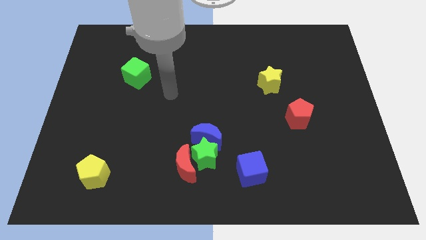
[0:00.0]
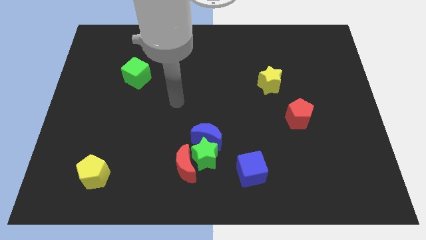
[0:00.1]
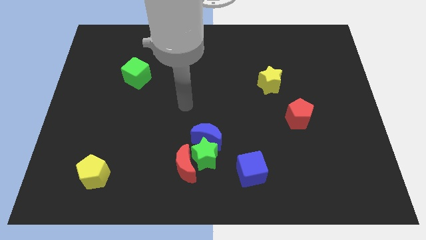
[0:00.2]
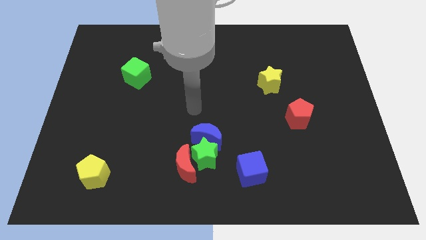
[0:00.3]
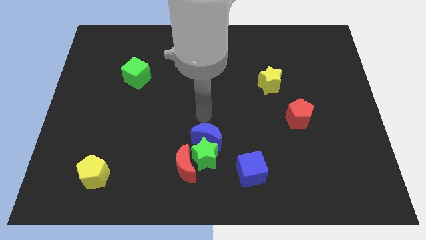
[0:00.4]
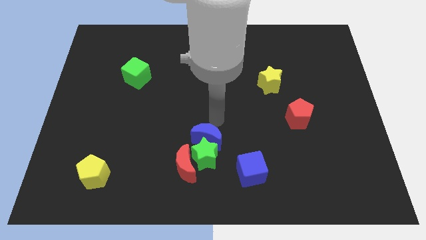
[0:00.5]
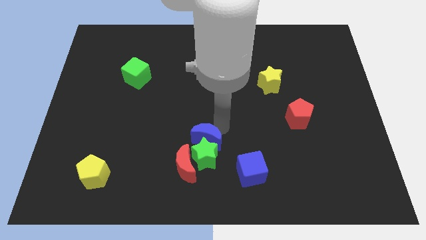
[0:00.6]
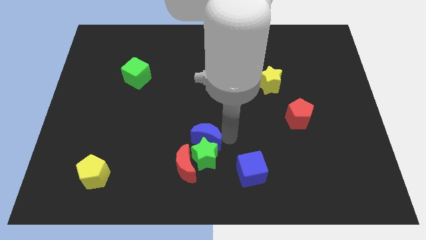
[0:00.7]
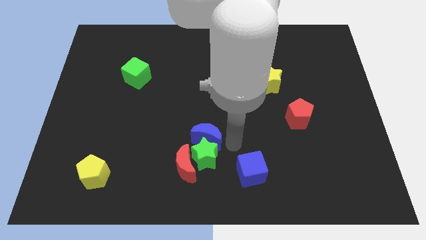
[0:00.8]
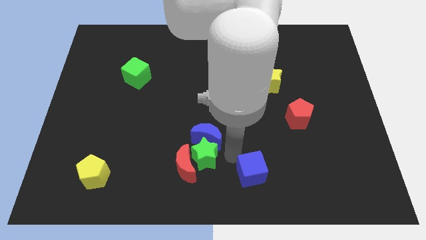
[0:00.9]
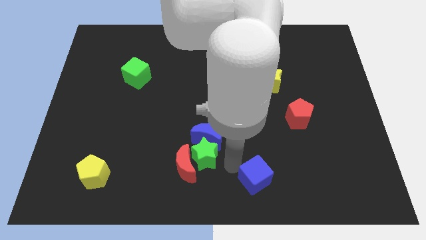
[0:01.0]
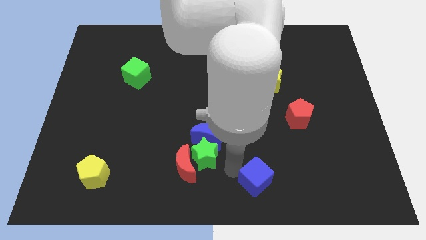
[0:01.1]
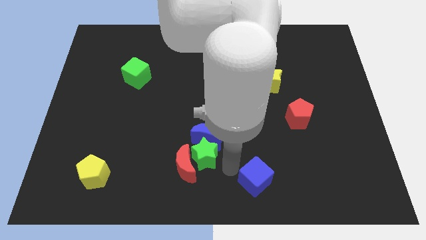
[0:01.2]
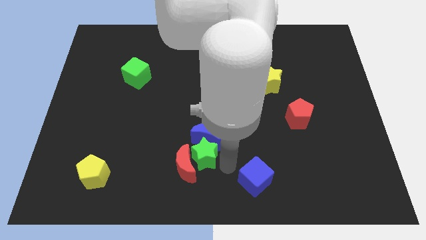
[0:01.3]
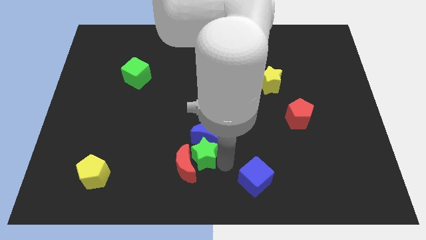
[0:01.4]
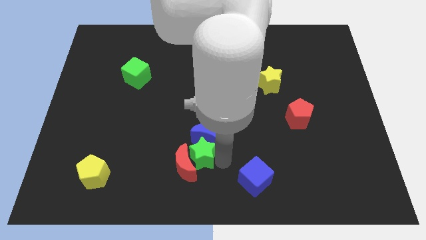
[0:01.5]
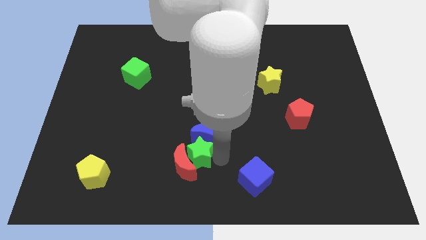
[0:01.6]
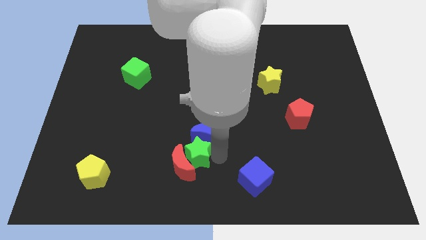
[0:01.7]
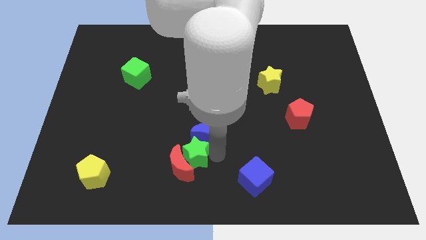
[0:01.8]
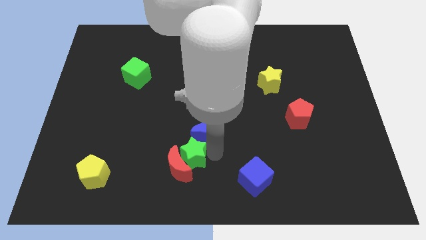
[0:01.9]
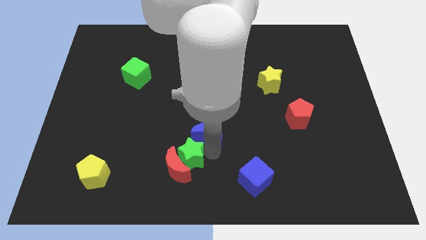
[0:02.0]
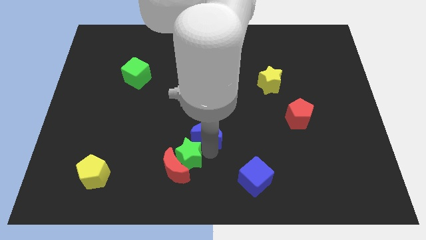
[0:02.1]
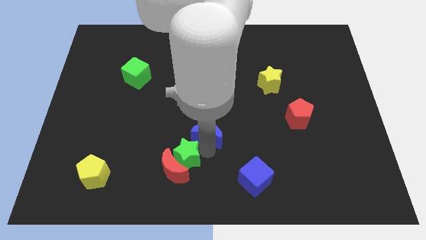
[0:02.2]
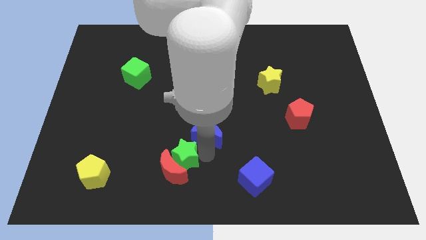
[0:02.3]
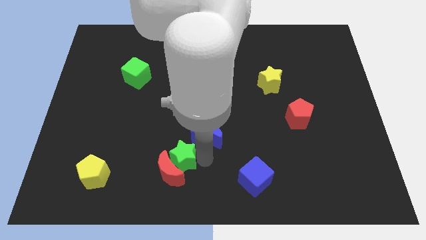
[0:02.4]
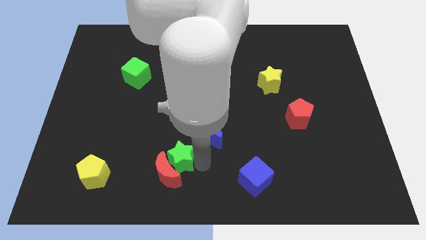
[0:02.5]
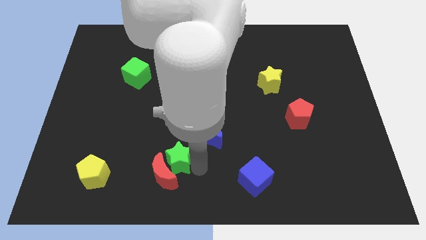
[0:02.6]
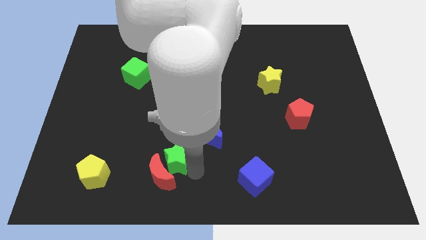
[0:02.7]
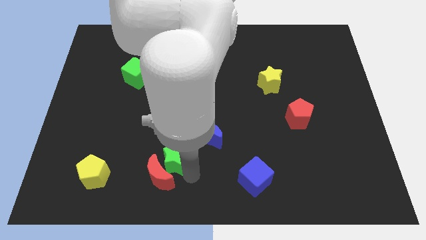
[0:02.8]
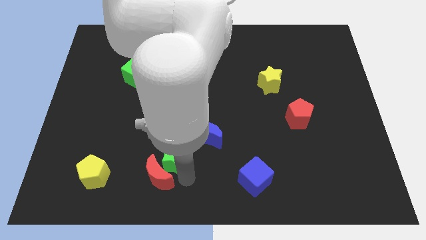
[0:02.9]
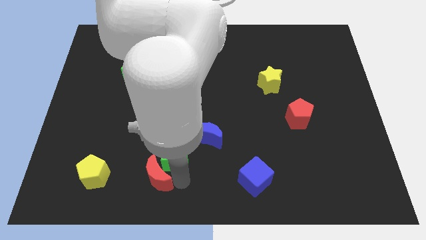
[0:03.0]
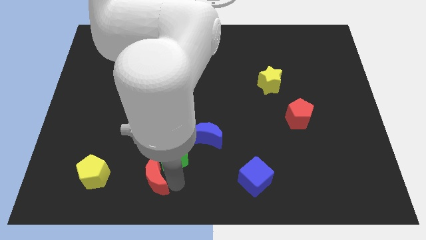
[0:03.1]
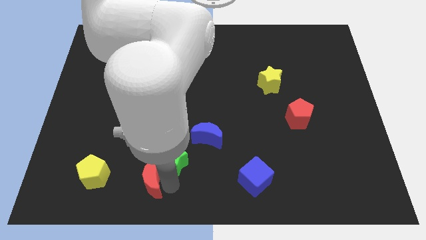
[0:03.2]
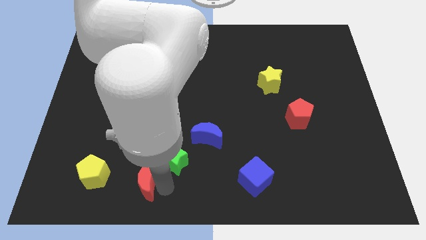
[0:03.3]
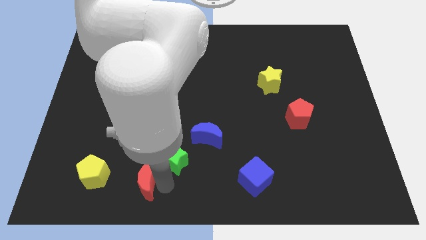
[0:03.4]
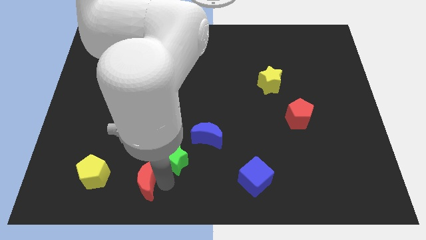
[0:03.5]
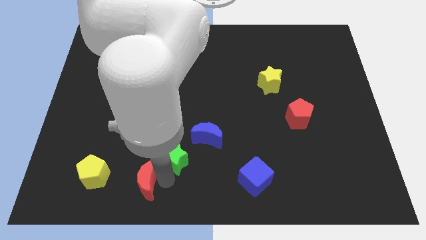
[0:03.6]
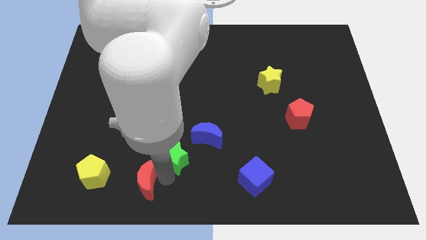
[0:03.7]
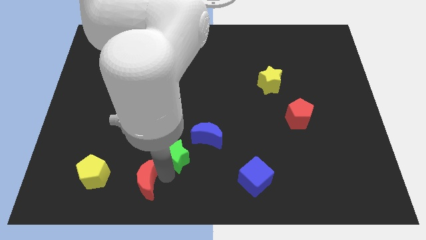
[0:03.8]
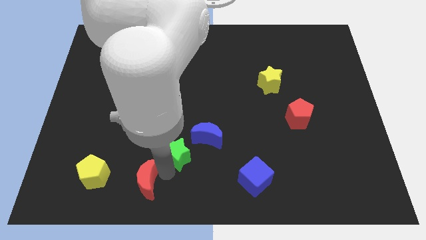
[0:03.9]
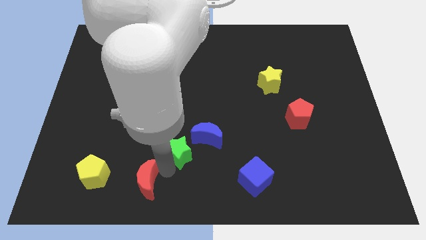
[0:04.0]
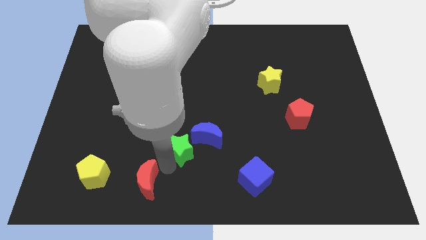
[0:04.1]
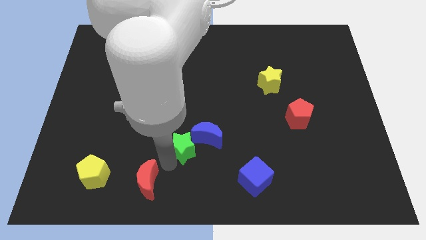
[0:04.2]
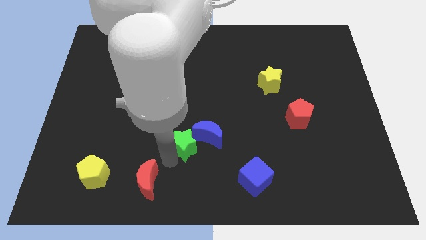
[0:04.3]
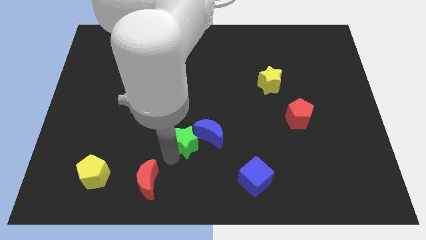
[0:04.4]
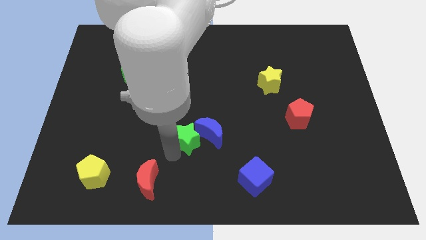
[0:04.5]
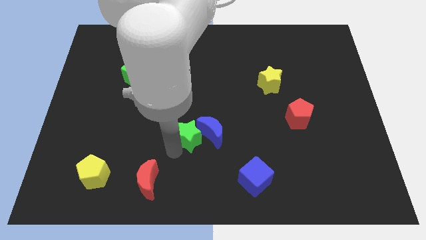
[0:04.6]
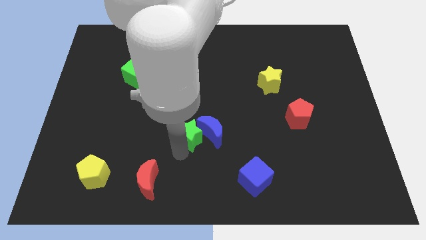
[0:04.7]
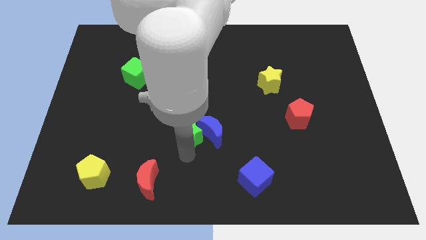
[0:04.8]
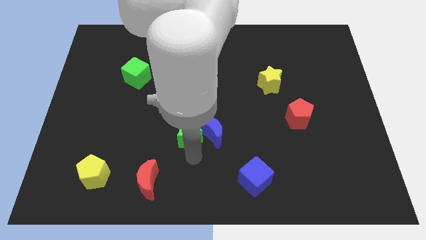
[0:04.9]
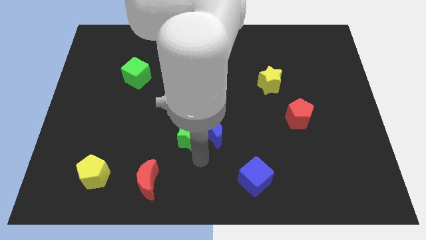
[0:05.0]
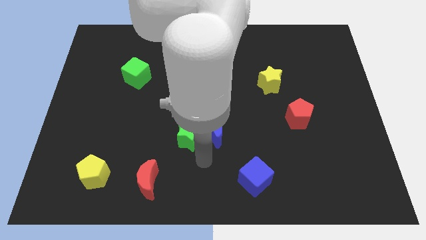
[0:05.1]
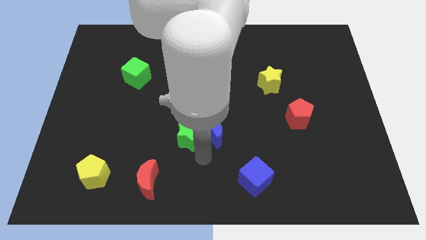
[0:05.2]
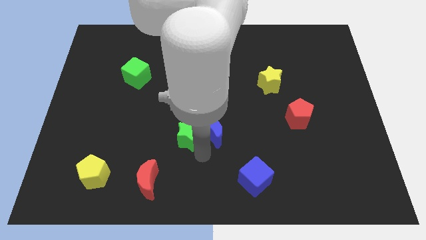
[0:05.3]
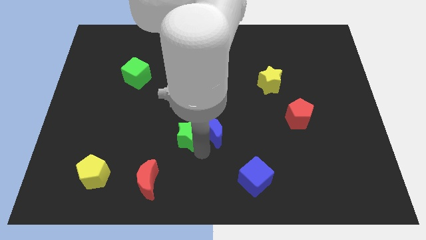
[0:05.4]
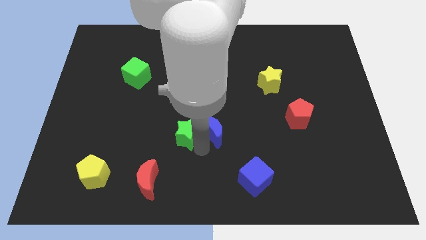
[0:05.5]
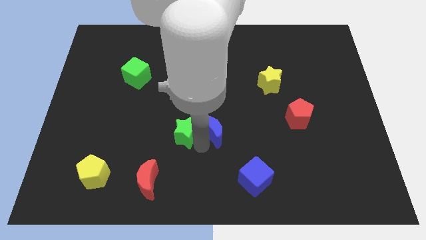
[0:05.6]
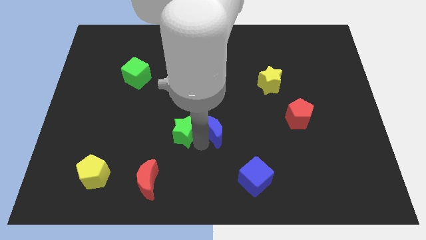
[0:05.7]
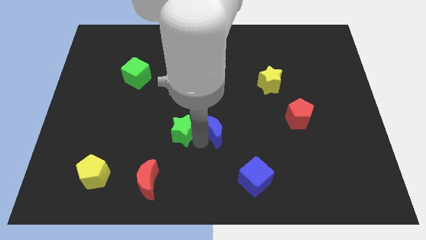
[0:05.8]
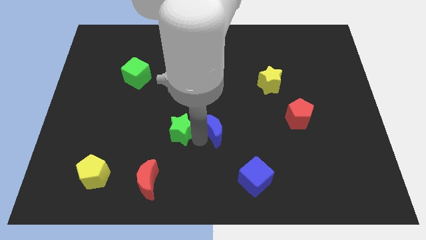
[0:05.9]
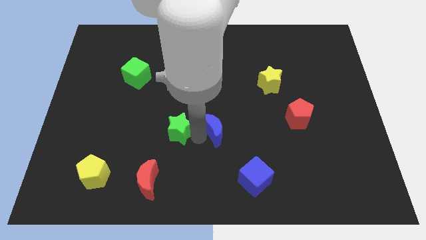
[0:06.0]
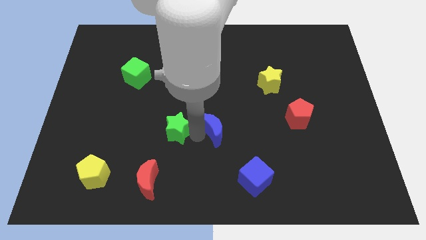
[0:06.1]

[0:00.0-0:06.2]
separate the green star from the clump

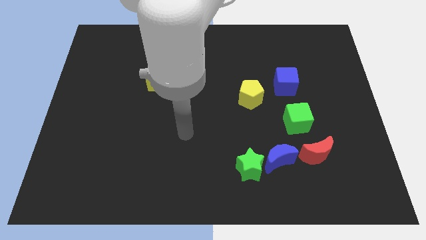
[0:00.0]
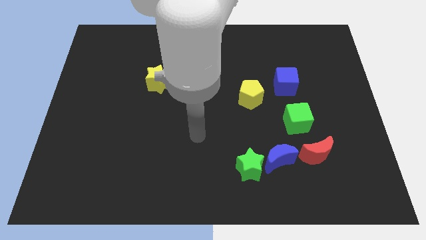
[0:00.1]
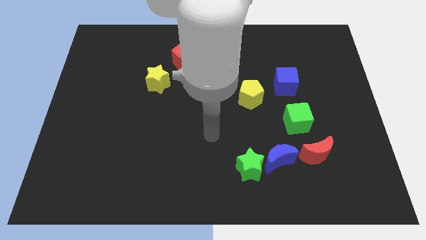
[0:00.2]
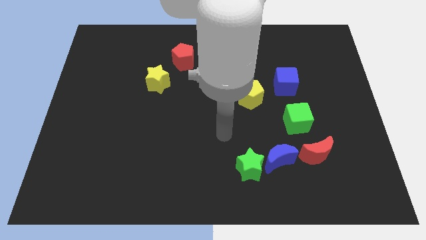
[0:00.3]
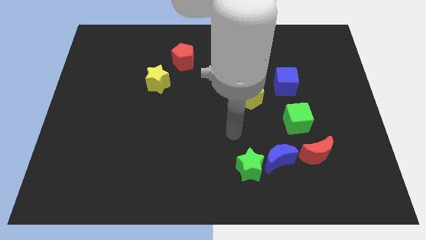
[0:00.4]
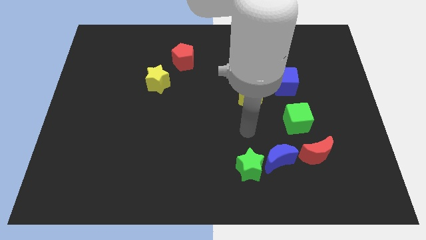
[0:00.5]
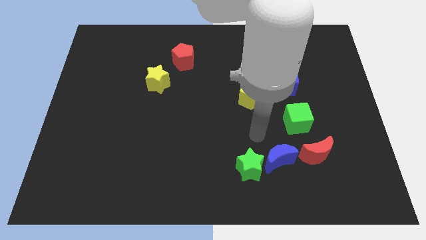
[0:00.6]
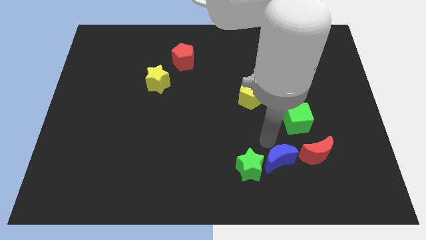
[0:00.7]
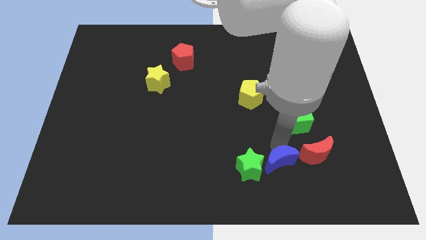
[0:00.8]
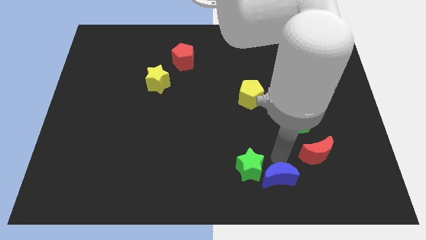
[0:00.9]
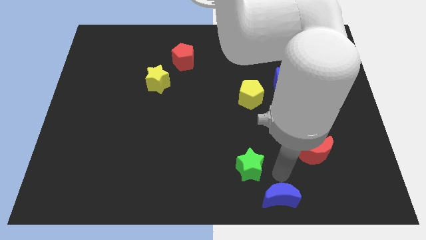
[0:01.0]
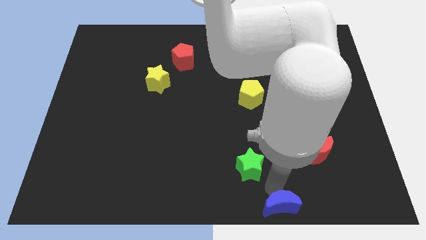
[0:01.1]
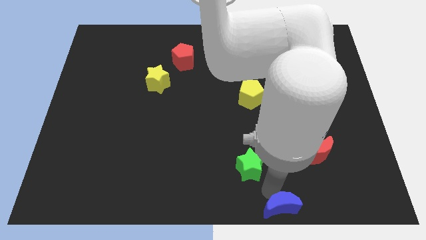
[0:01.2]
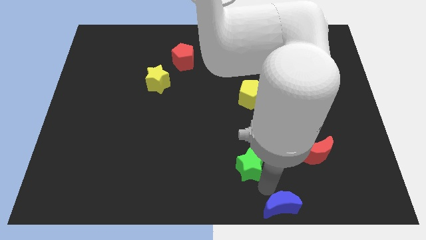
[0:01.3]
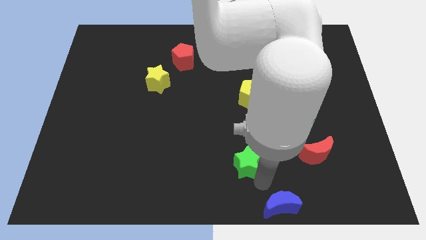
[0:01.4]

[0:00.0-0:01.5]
separate the green star from the blue moon

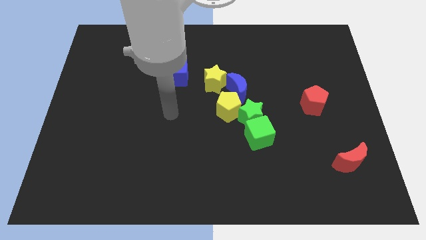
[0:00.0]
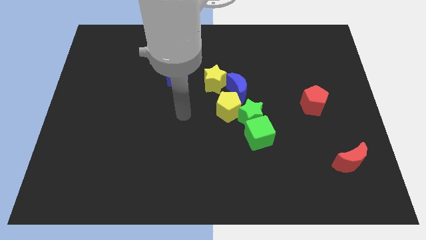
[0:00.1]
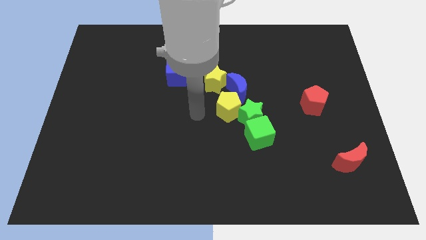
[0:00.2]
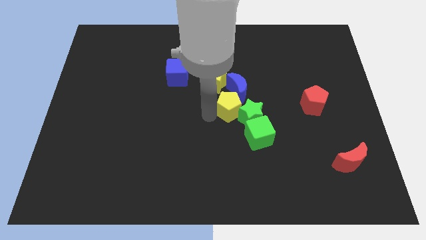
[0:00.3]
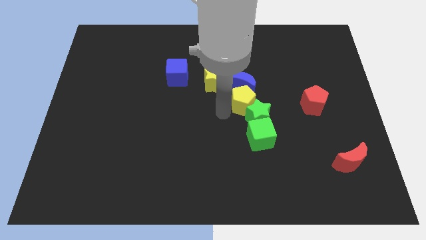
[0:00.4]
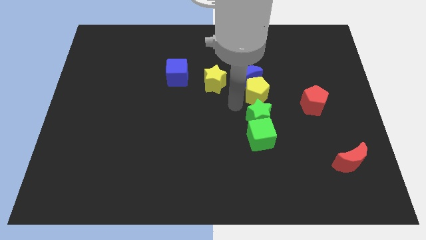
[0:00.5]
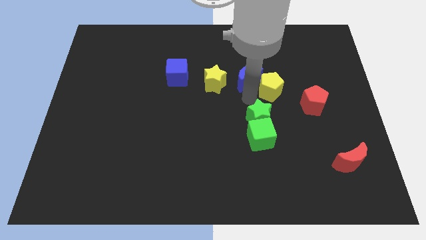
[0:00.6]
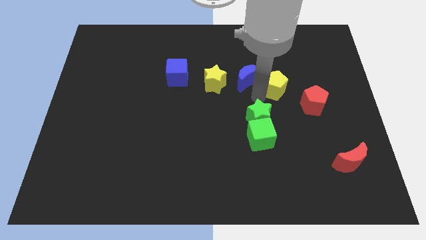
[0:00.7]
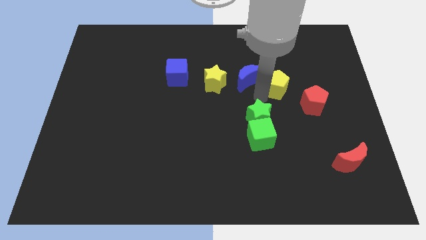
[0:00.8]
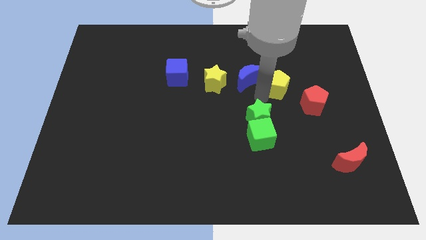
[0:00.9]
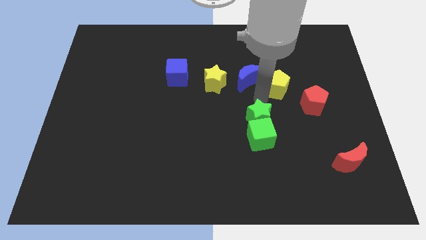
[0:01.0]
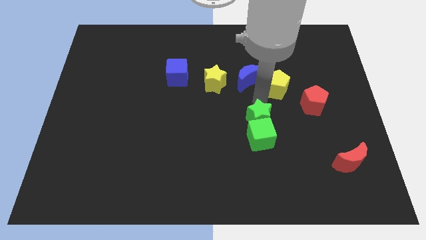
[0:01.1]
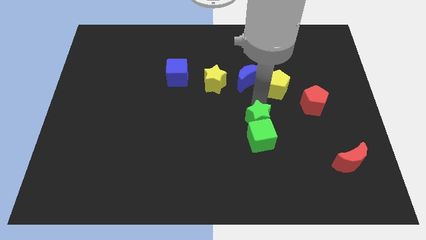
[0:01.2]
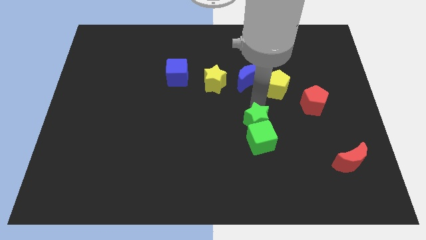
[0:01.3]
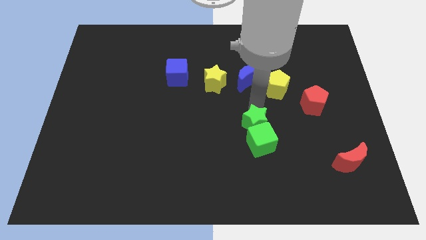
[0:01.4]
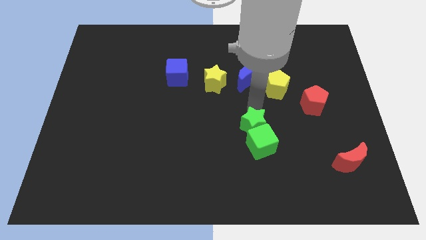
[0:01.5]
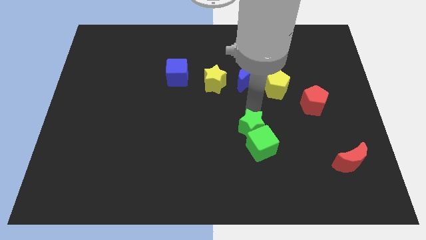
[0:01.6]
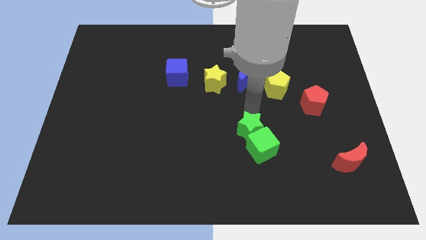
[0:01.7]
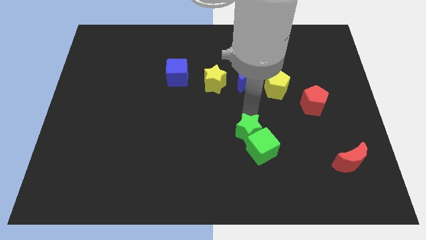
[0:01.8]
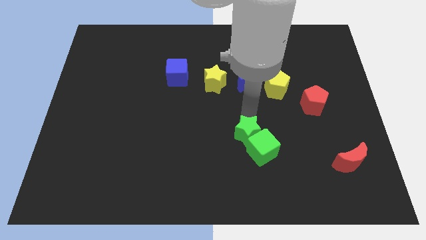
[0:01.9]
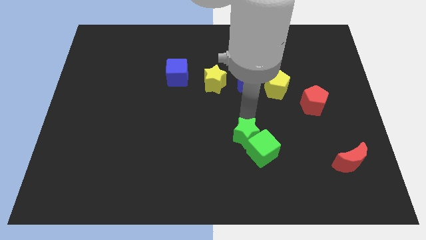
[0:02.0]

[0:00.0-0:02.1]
move the green star away from the clump
